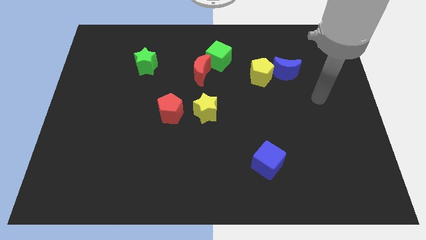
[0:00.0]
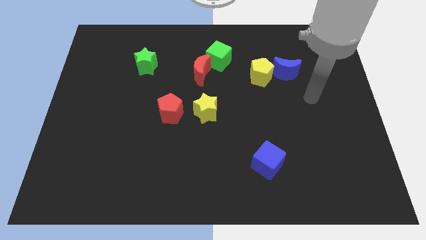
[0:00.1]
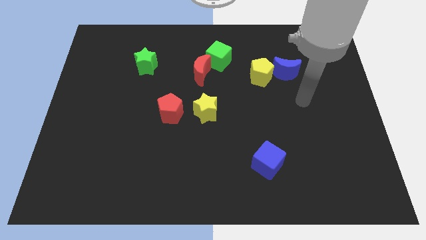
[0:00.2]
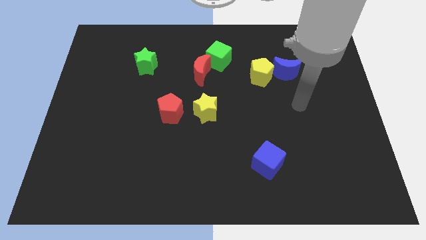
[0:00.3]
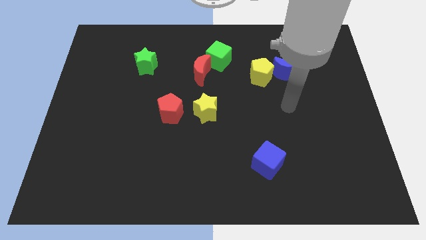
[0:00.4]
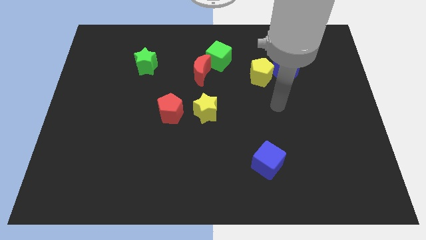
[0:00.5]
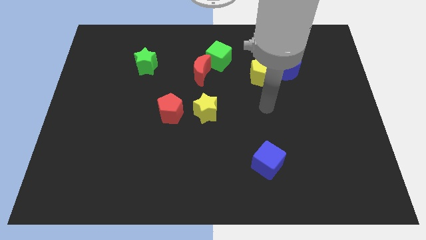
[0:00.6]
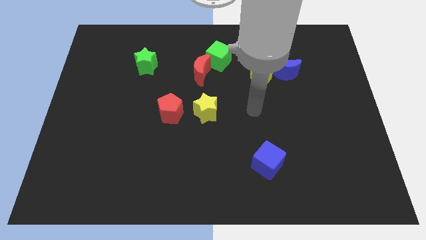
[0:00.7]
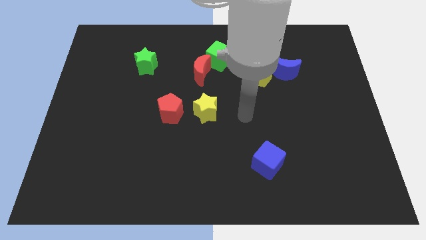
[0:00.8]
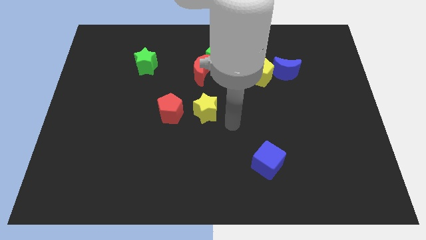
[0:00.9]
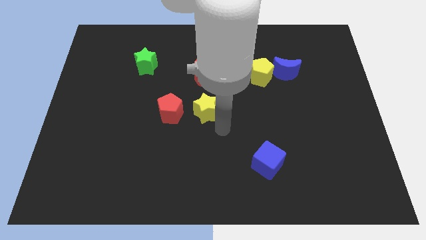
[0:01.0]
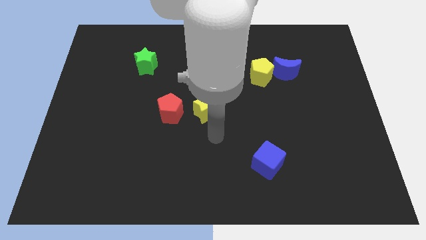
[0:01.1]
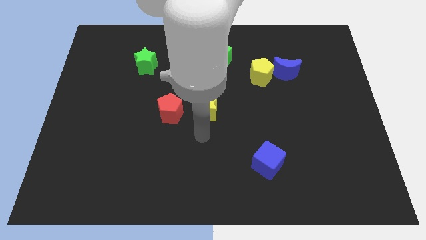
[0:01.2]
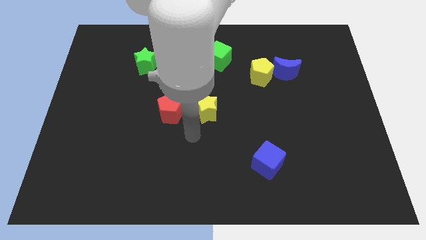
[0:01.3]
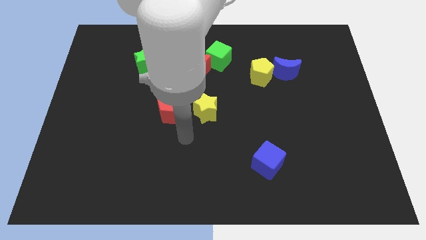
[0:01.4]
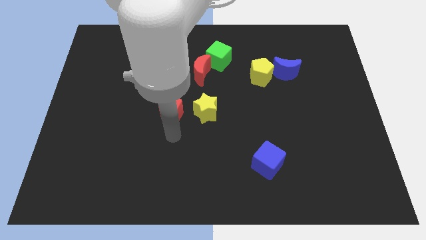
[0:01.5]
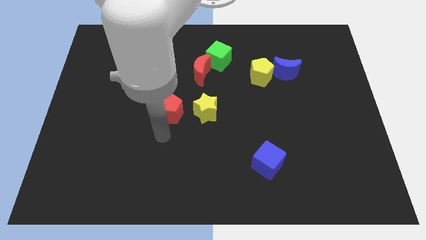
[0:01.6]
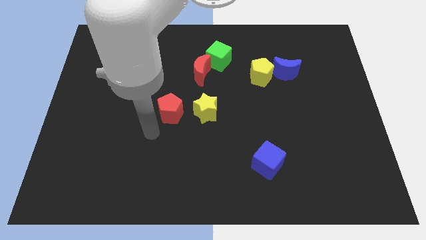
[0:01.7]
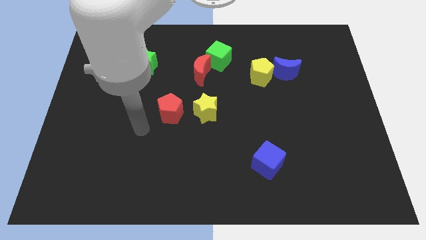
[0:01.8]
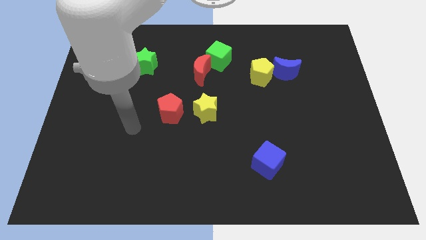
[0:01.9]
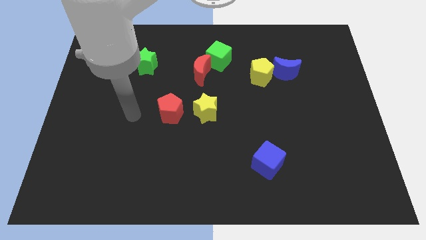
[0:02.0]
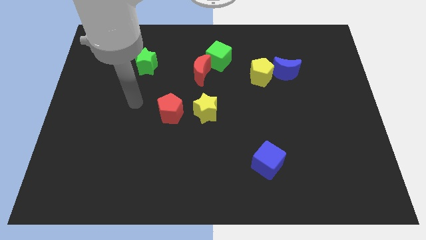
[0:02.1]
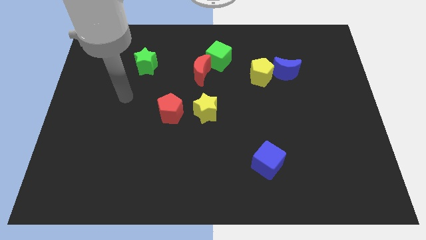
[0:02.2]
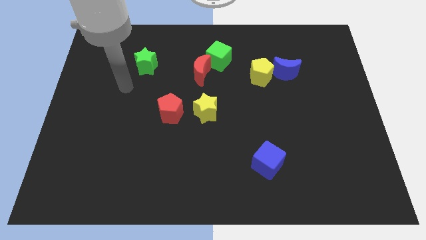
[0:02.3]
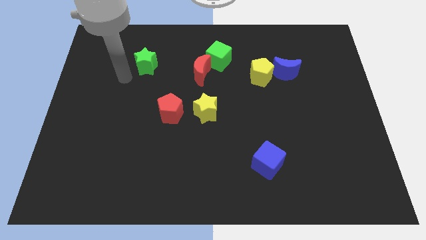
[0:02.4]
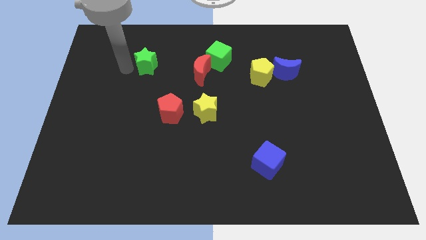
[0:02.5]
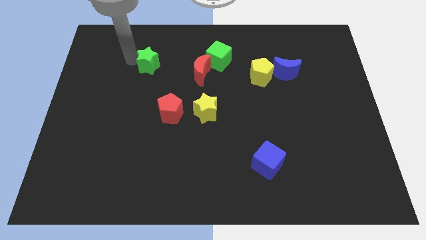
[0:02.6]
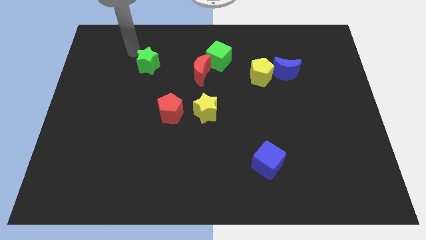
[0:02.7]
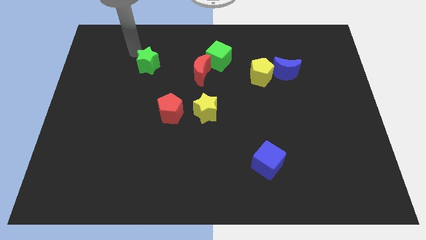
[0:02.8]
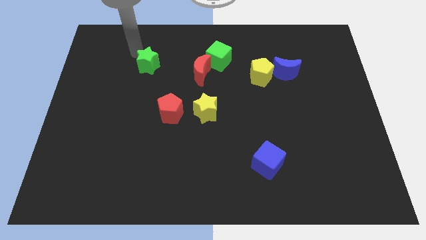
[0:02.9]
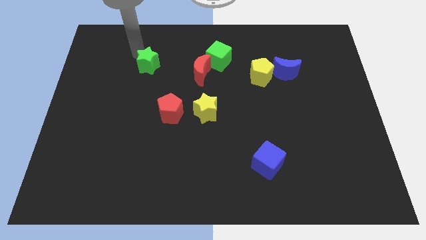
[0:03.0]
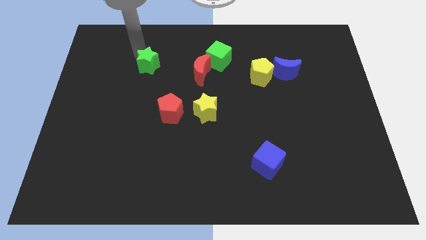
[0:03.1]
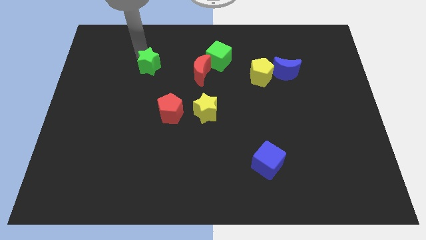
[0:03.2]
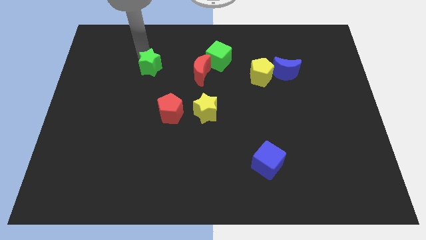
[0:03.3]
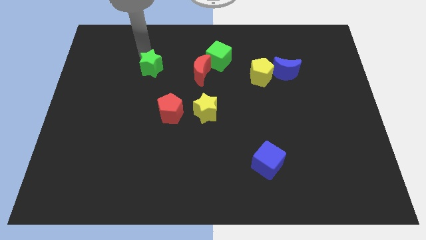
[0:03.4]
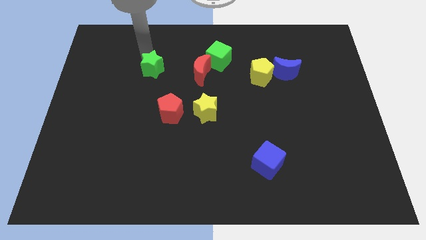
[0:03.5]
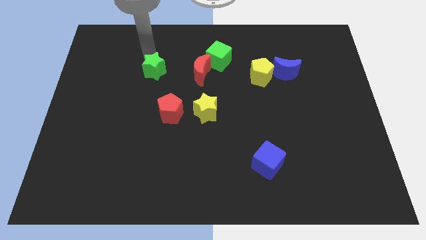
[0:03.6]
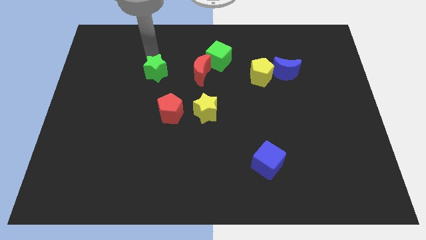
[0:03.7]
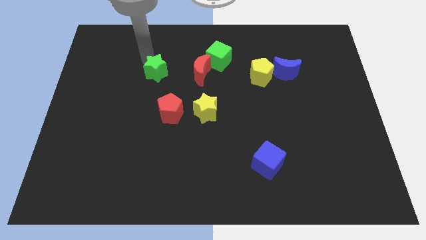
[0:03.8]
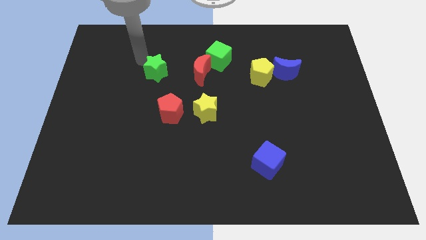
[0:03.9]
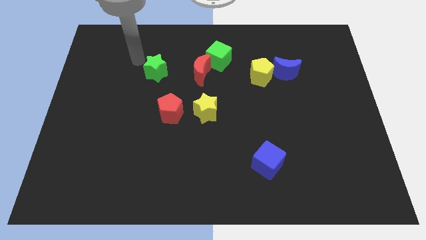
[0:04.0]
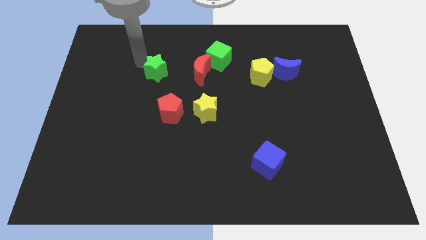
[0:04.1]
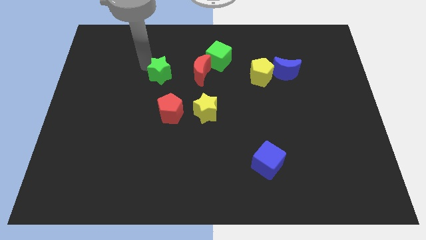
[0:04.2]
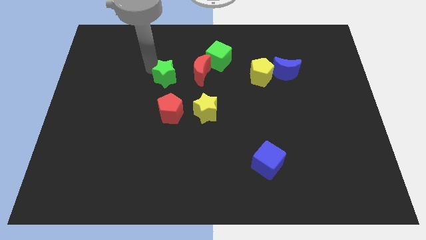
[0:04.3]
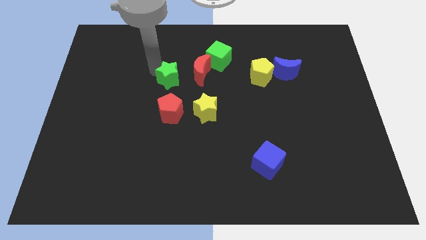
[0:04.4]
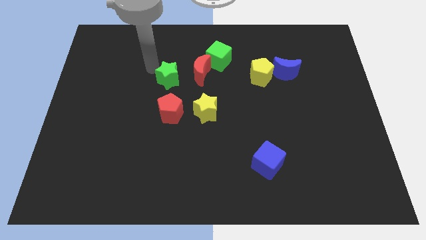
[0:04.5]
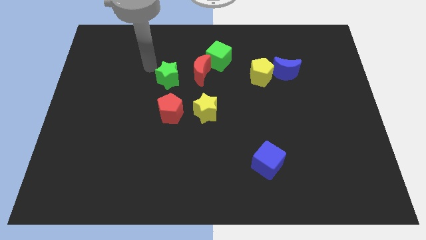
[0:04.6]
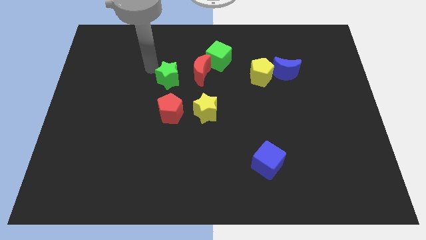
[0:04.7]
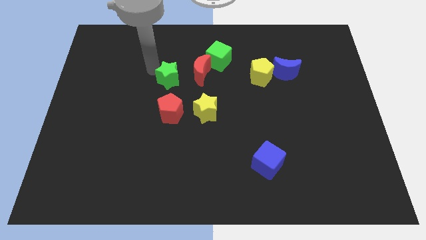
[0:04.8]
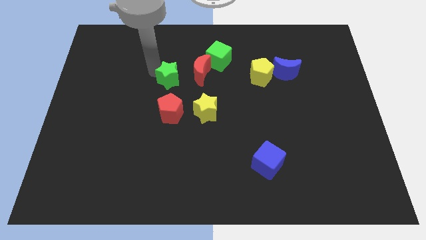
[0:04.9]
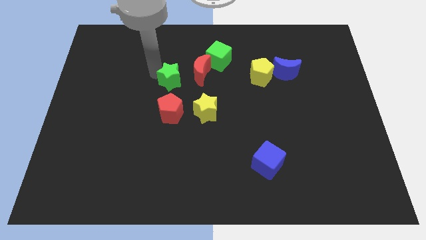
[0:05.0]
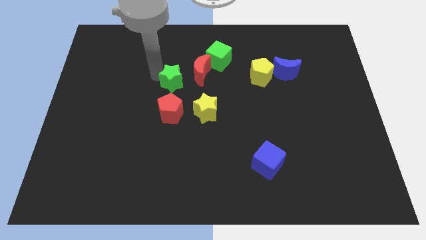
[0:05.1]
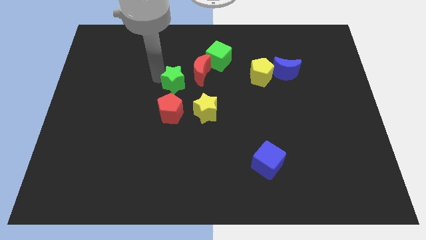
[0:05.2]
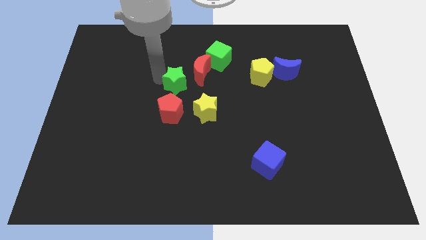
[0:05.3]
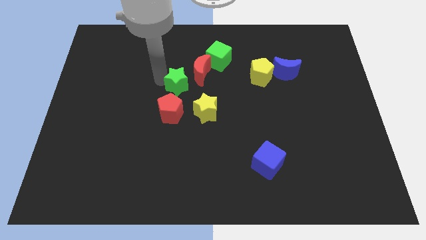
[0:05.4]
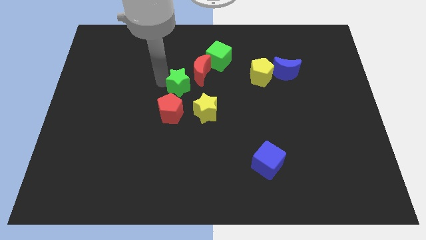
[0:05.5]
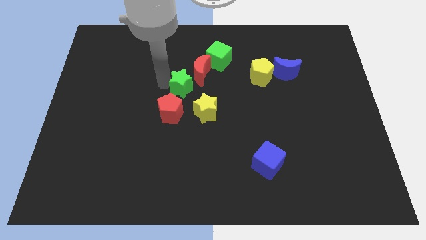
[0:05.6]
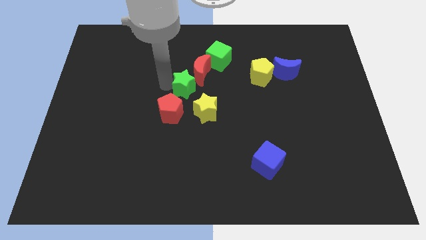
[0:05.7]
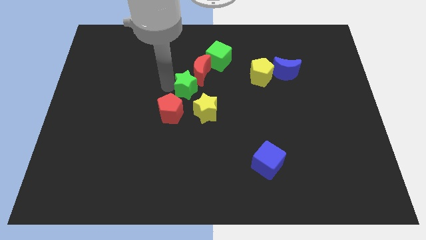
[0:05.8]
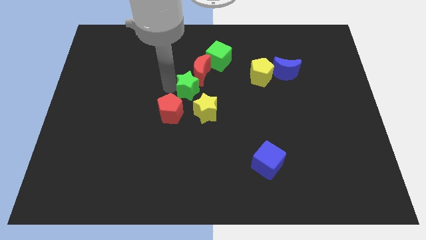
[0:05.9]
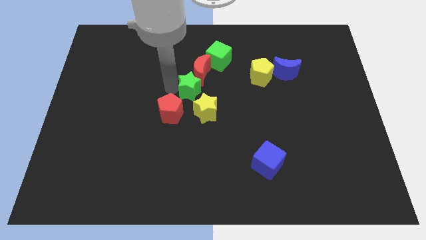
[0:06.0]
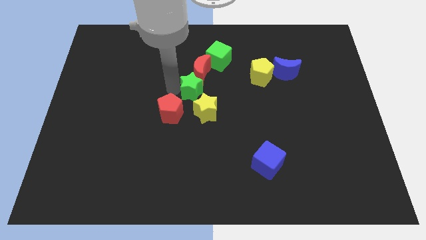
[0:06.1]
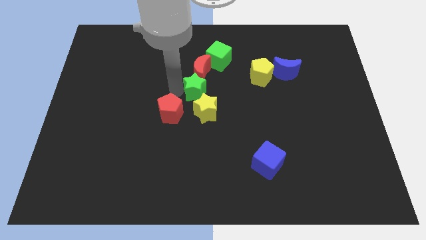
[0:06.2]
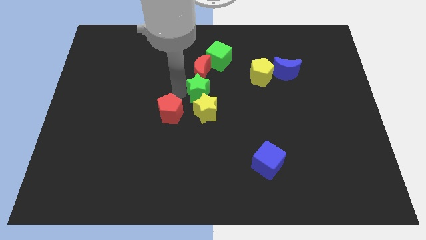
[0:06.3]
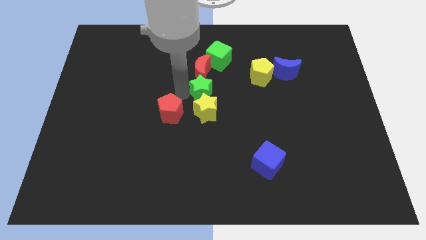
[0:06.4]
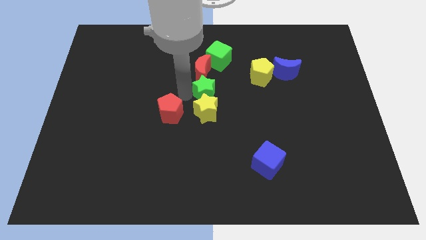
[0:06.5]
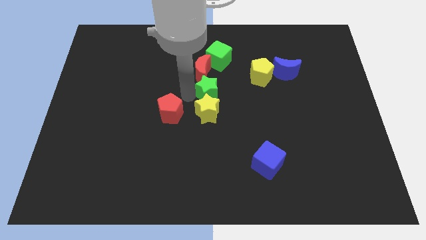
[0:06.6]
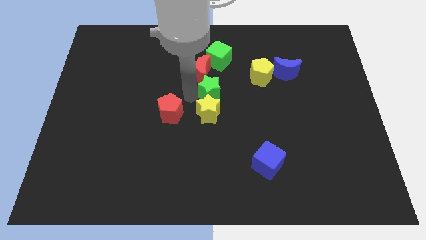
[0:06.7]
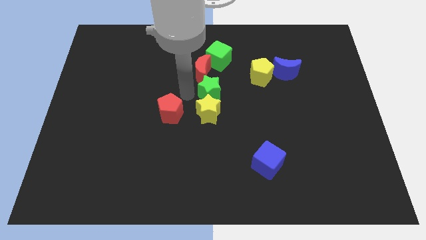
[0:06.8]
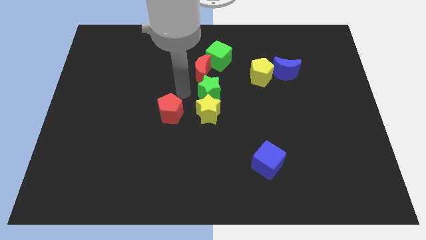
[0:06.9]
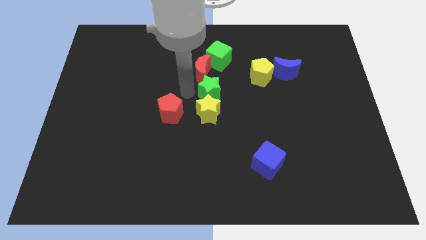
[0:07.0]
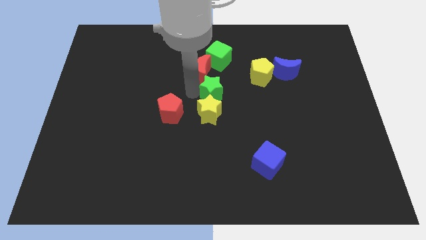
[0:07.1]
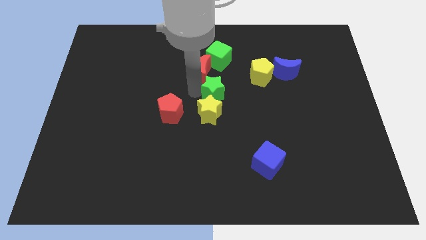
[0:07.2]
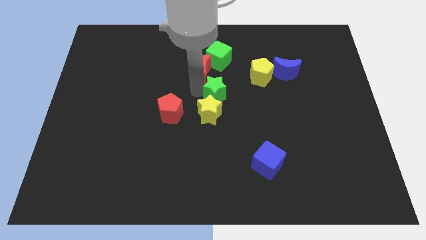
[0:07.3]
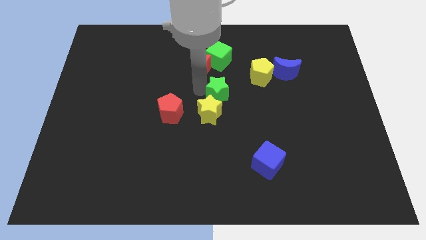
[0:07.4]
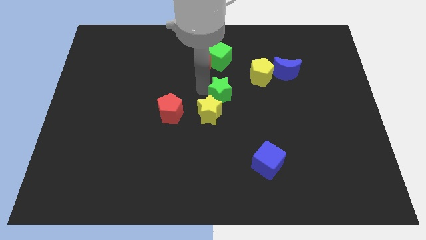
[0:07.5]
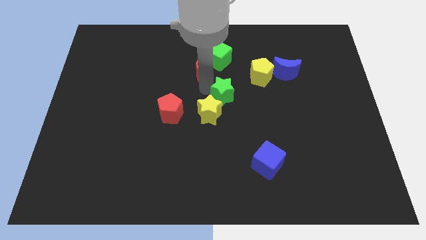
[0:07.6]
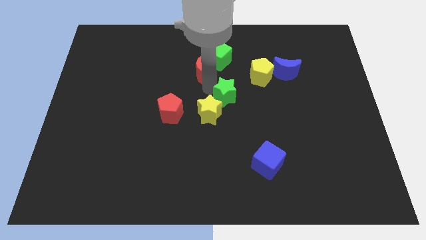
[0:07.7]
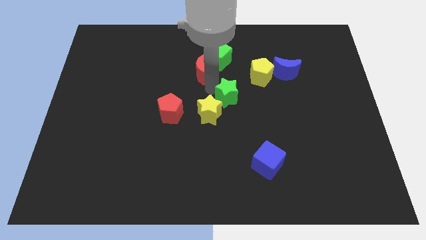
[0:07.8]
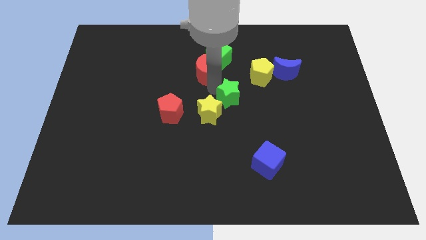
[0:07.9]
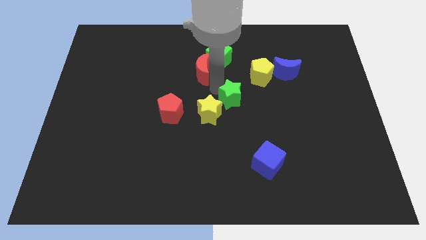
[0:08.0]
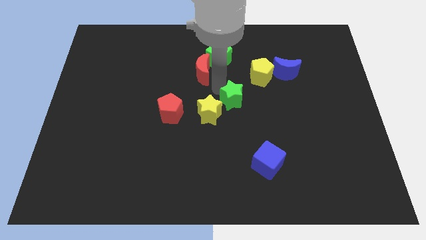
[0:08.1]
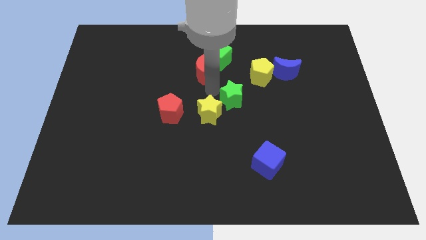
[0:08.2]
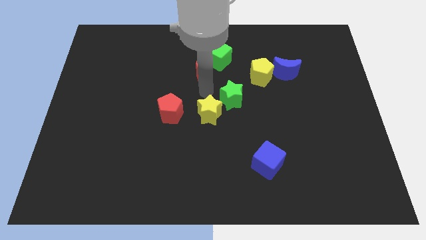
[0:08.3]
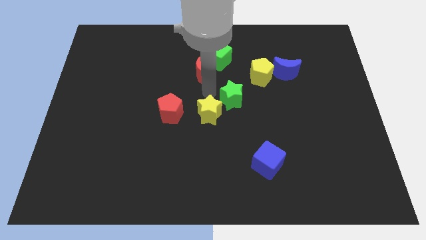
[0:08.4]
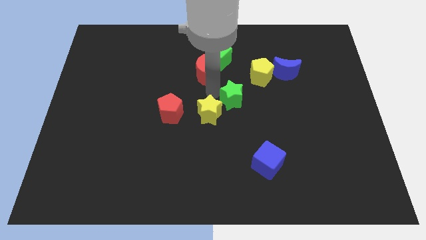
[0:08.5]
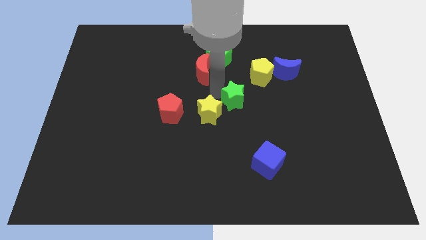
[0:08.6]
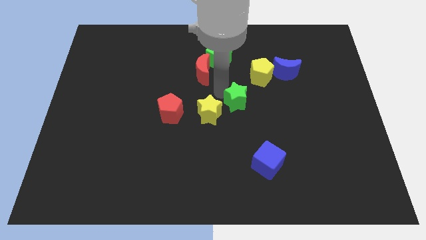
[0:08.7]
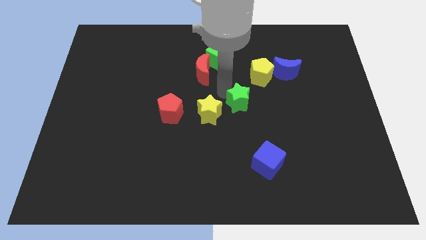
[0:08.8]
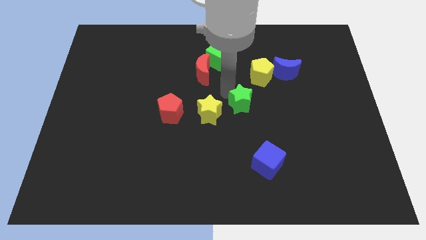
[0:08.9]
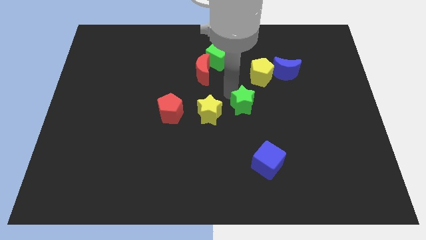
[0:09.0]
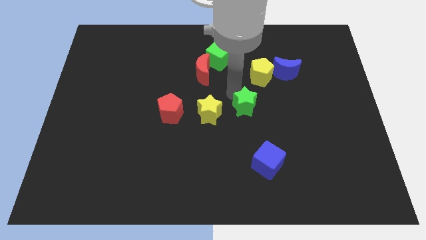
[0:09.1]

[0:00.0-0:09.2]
slide the green star to the bottom of the yellow pentagon
